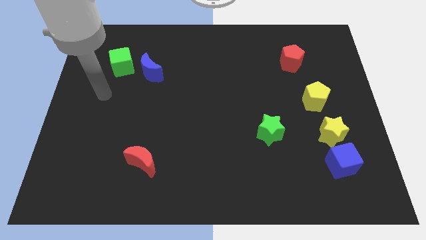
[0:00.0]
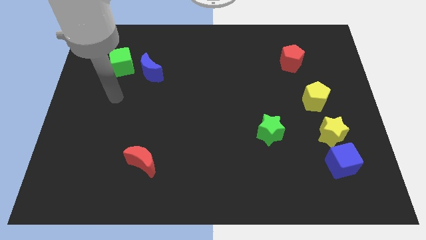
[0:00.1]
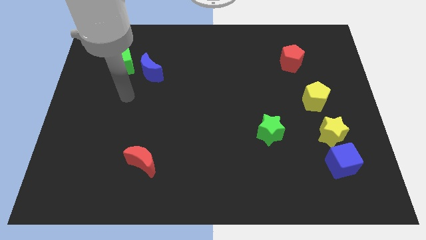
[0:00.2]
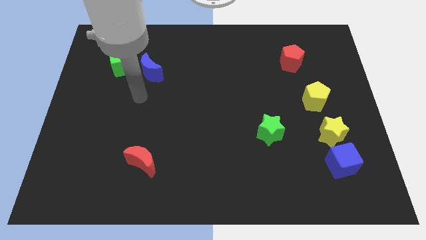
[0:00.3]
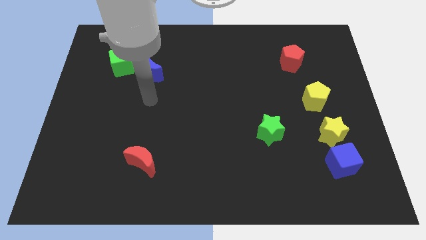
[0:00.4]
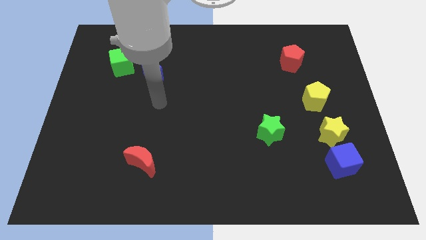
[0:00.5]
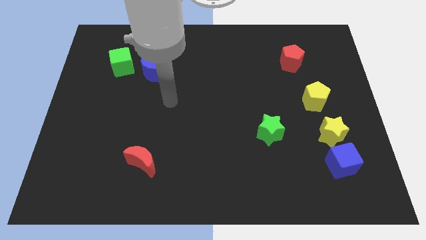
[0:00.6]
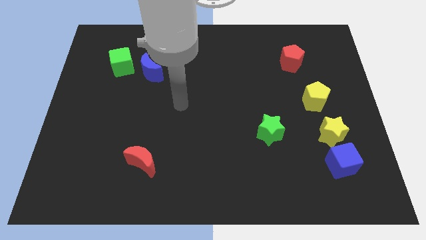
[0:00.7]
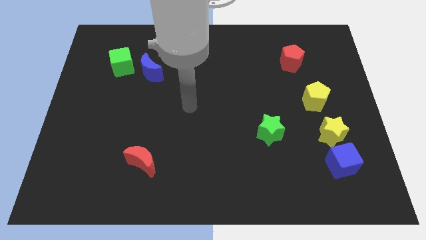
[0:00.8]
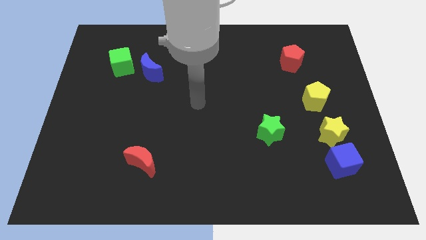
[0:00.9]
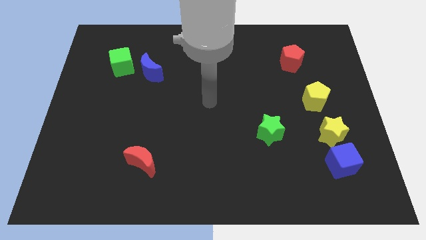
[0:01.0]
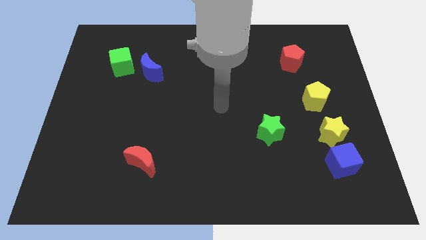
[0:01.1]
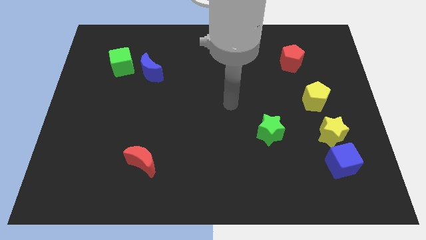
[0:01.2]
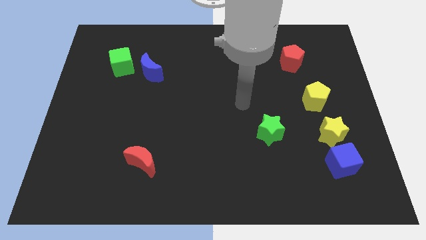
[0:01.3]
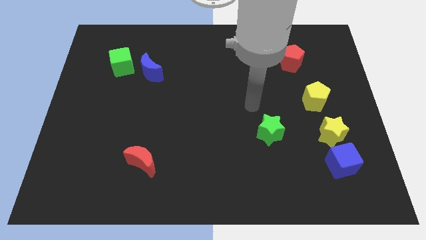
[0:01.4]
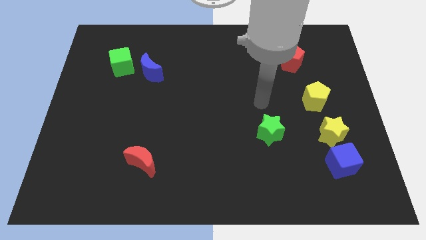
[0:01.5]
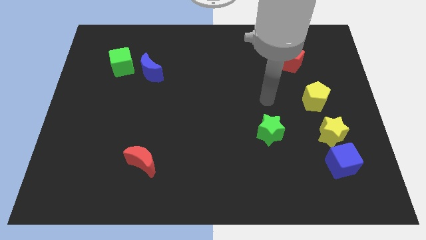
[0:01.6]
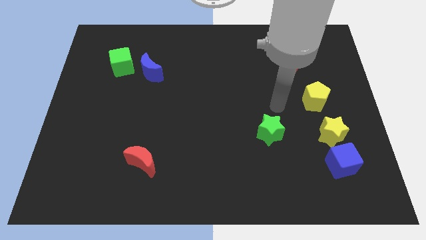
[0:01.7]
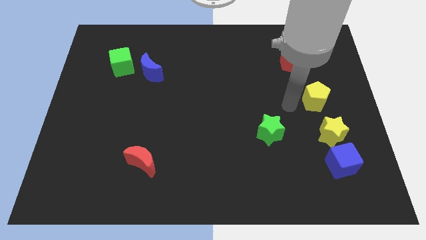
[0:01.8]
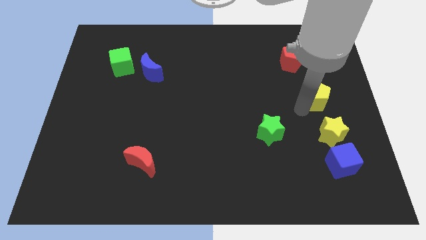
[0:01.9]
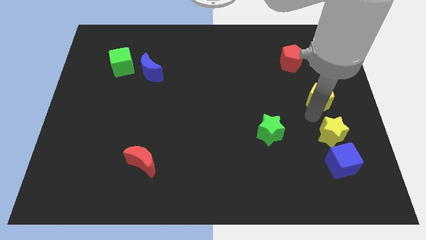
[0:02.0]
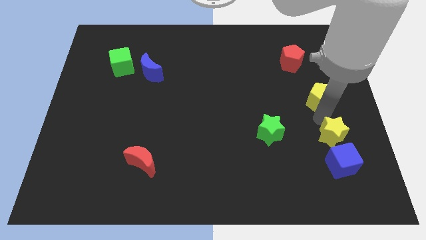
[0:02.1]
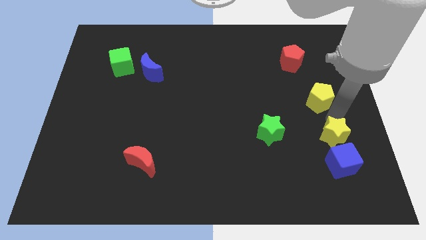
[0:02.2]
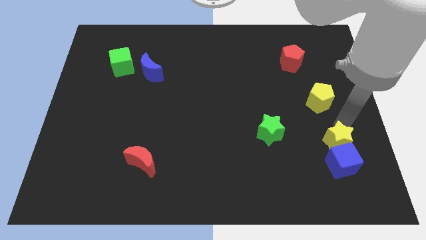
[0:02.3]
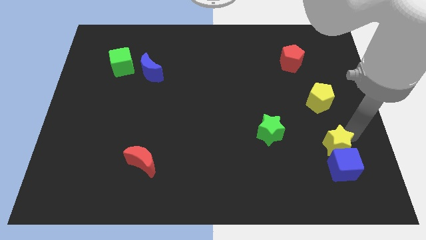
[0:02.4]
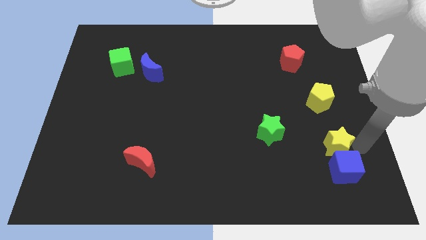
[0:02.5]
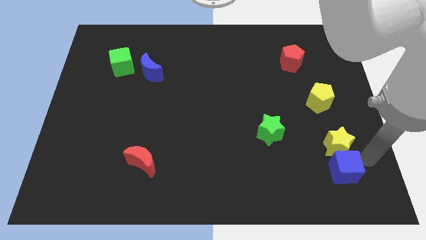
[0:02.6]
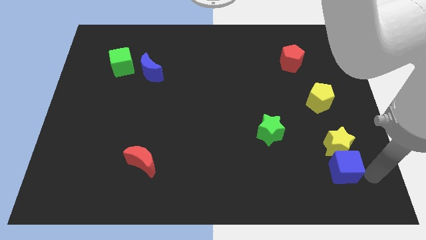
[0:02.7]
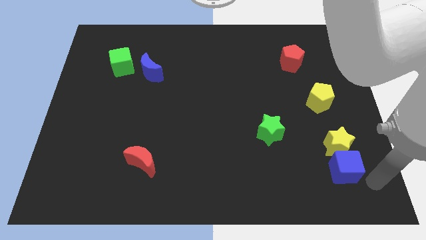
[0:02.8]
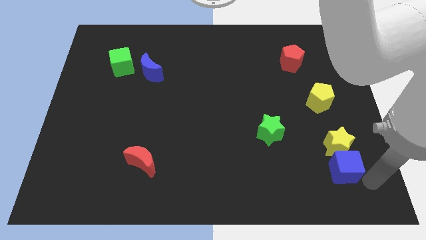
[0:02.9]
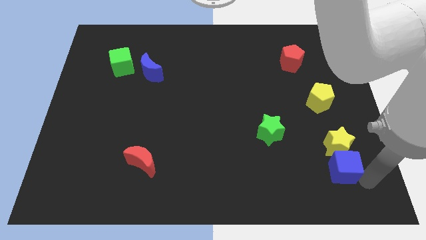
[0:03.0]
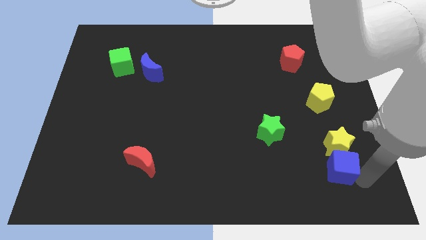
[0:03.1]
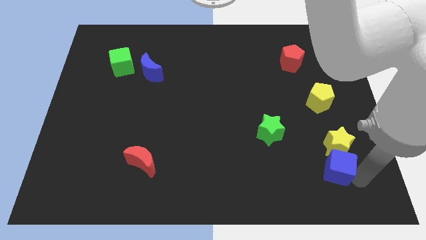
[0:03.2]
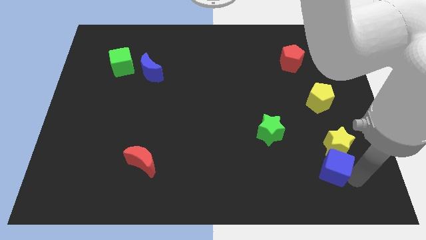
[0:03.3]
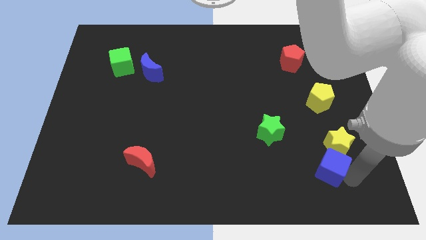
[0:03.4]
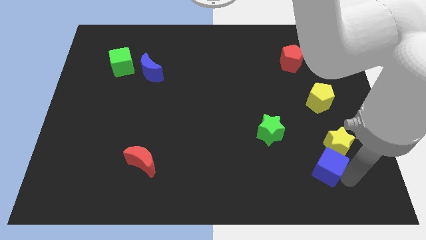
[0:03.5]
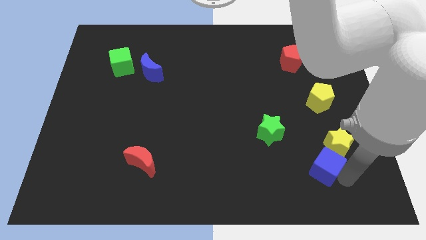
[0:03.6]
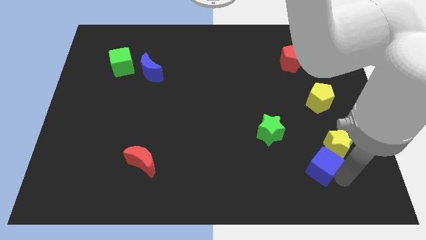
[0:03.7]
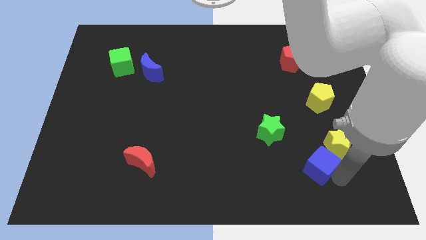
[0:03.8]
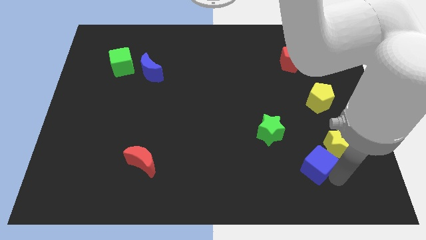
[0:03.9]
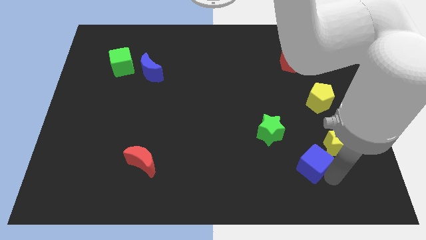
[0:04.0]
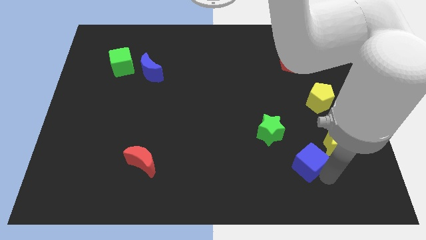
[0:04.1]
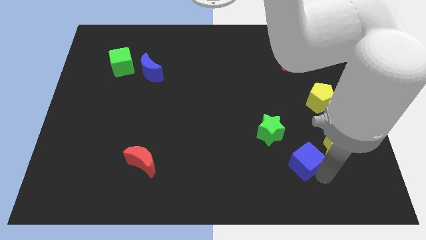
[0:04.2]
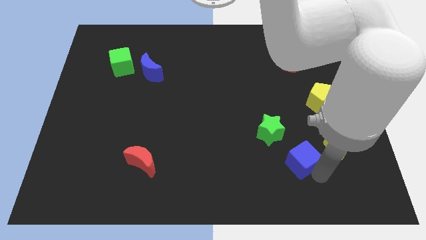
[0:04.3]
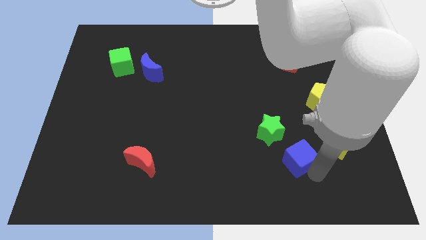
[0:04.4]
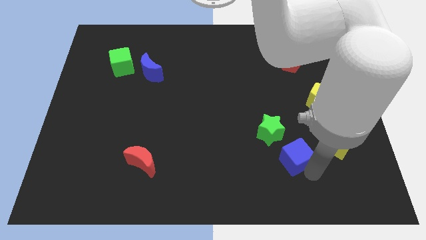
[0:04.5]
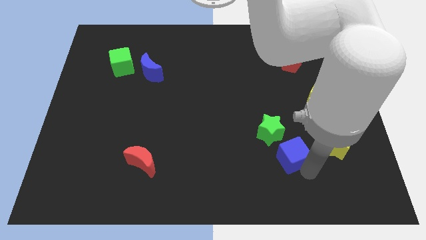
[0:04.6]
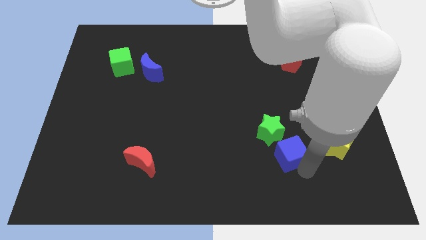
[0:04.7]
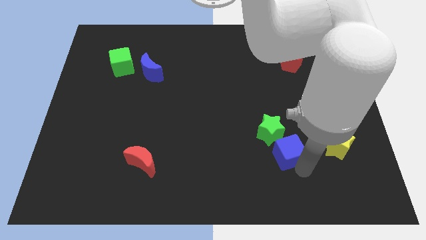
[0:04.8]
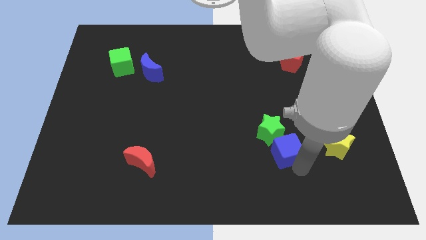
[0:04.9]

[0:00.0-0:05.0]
put the blue cube close to the green star

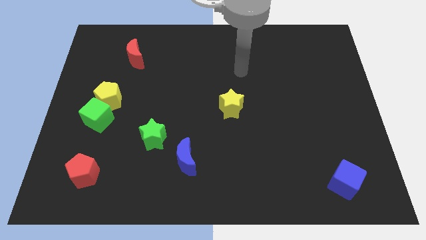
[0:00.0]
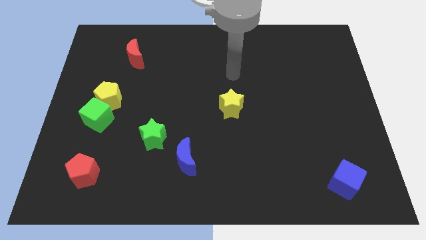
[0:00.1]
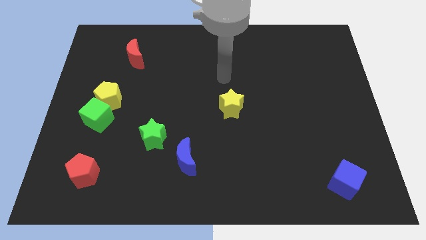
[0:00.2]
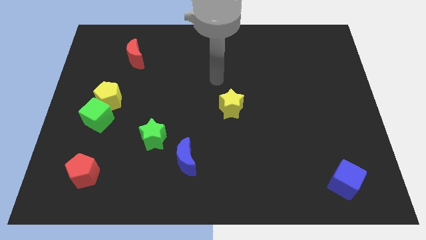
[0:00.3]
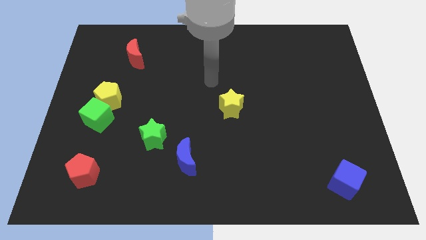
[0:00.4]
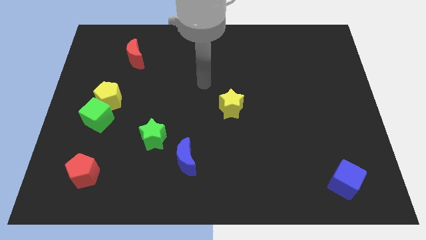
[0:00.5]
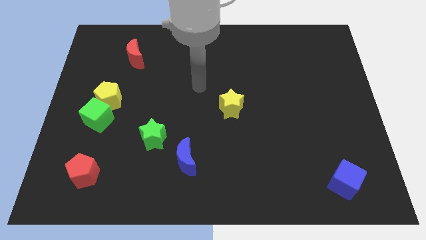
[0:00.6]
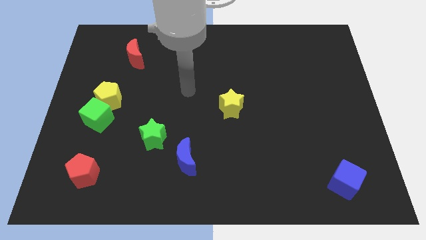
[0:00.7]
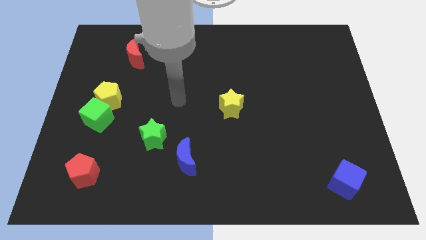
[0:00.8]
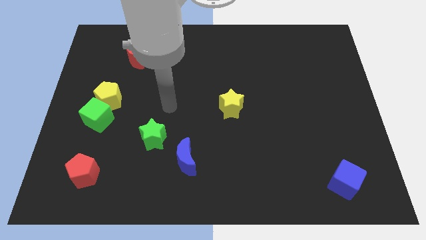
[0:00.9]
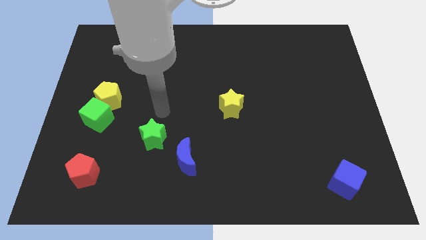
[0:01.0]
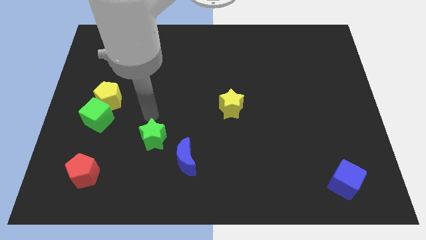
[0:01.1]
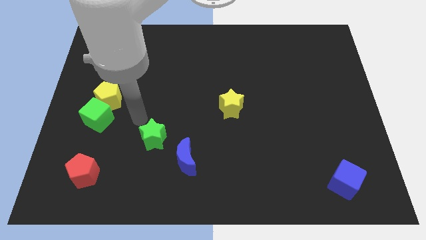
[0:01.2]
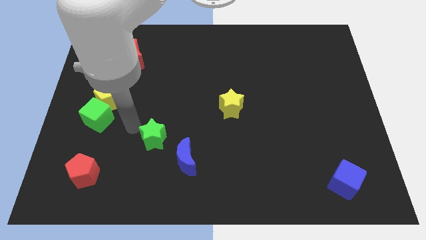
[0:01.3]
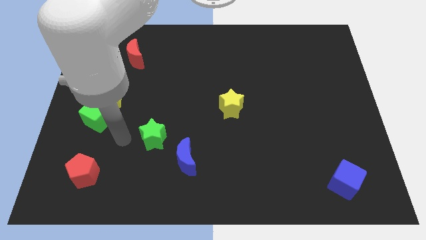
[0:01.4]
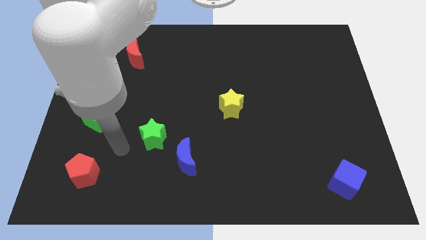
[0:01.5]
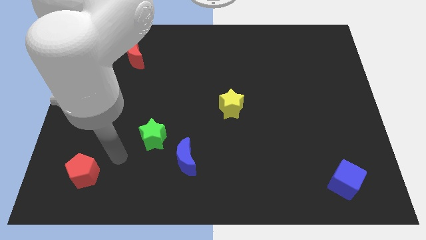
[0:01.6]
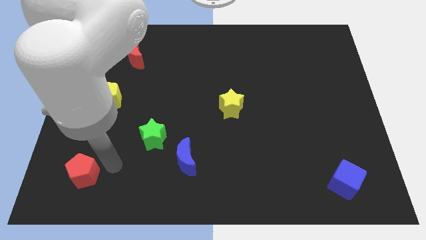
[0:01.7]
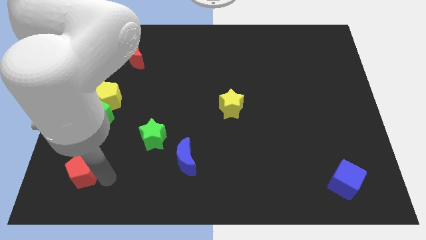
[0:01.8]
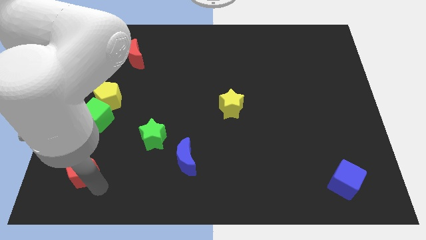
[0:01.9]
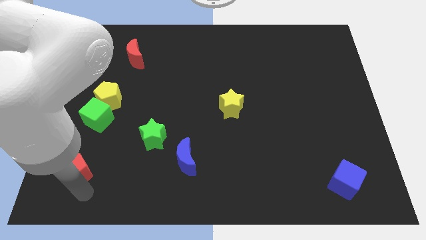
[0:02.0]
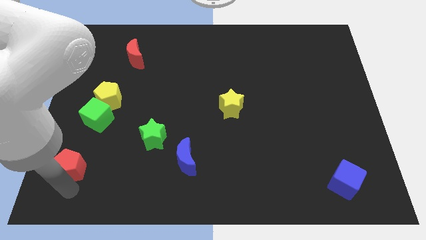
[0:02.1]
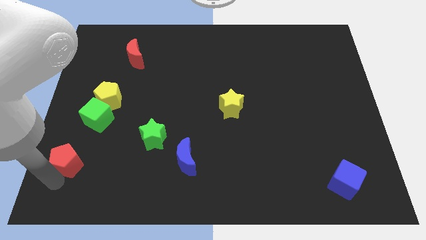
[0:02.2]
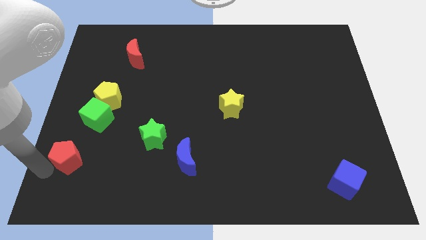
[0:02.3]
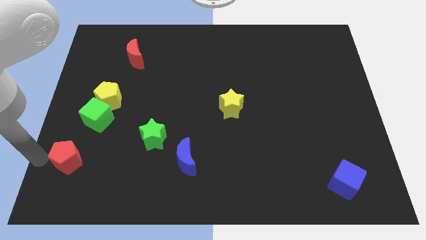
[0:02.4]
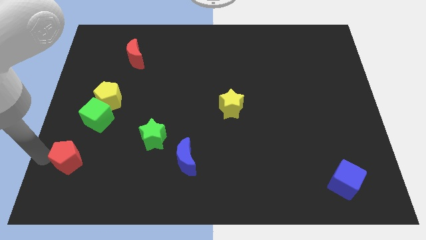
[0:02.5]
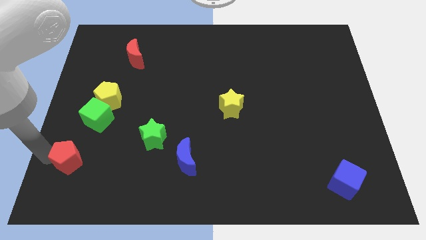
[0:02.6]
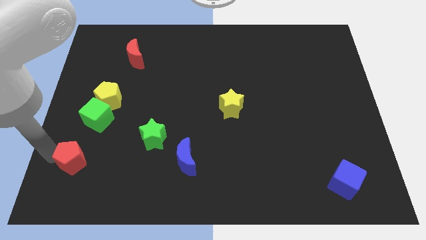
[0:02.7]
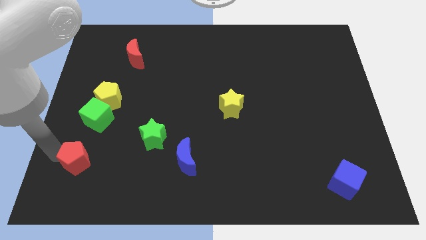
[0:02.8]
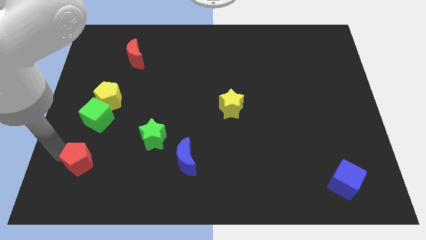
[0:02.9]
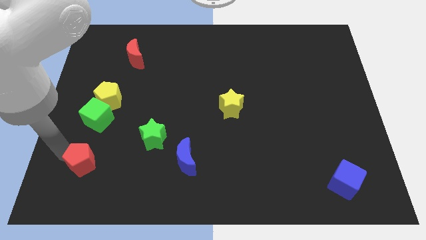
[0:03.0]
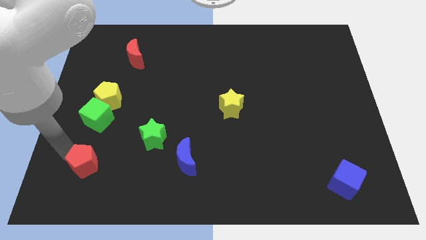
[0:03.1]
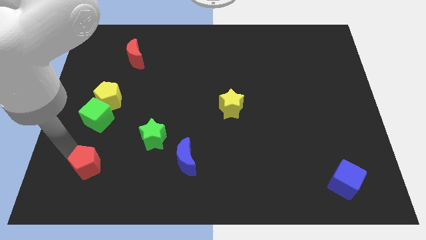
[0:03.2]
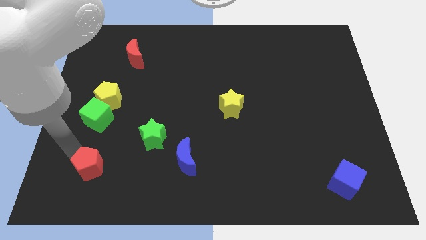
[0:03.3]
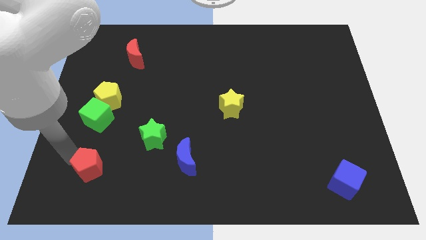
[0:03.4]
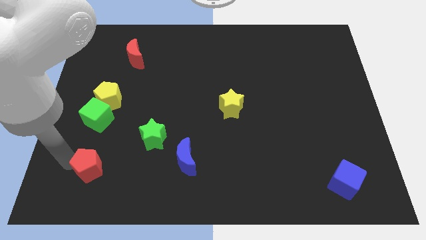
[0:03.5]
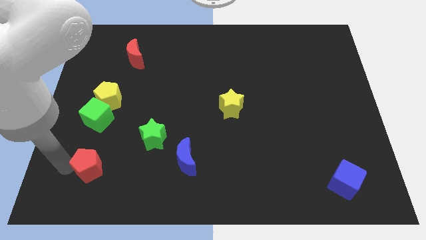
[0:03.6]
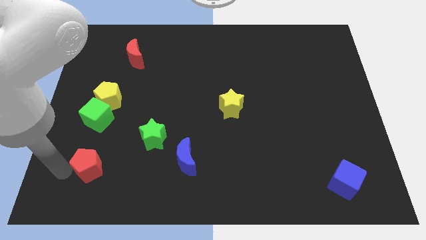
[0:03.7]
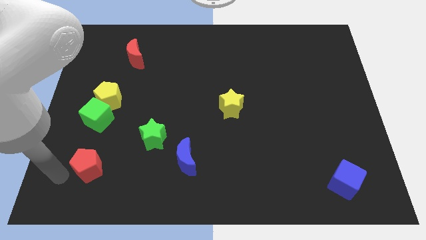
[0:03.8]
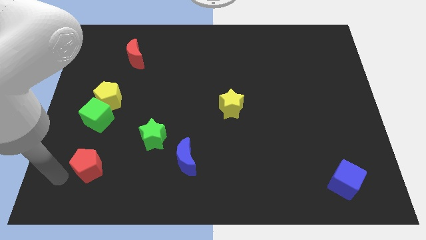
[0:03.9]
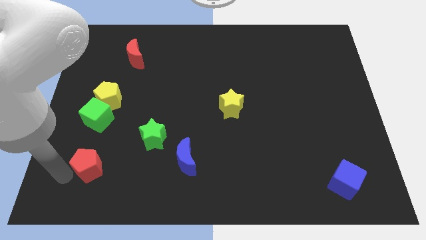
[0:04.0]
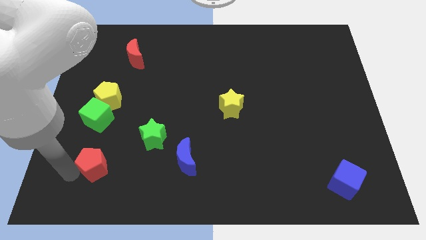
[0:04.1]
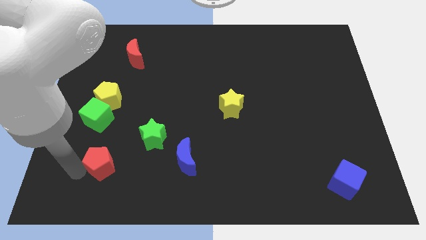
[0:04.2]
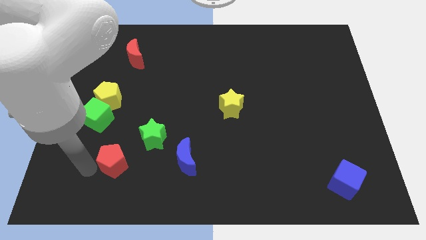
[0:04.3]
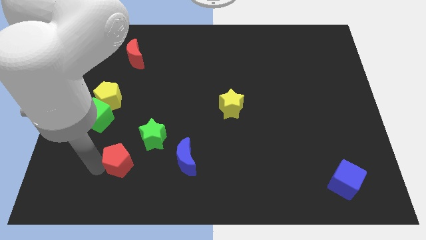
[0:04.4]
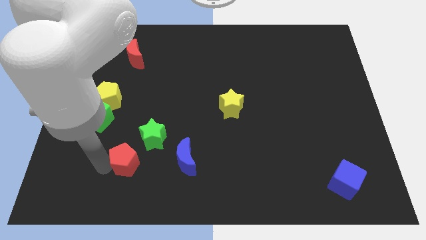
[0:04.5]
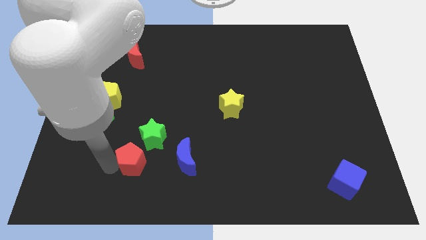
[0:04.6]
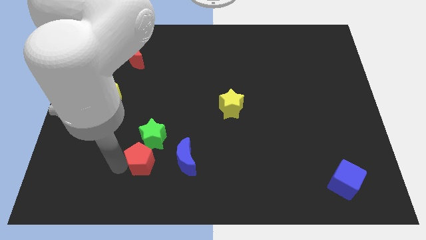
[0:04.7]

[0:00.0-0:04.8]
move the red pentagon to the green star
